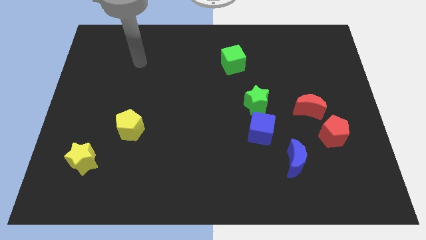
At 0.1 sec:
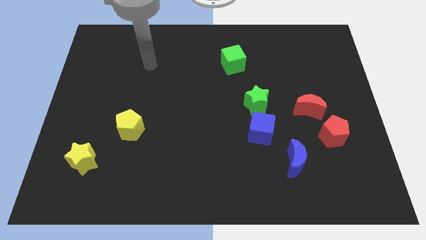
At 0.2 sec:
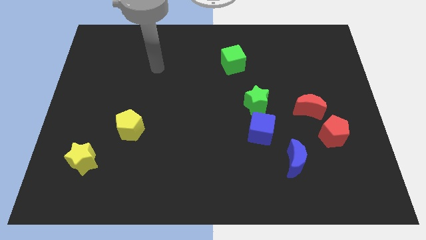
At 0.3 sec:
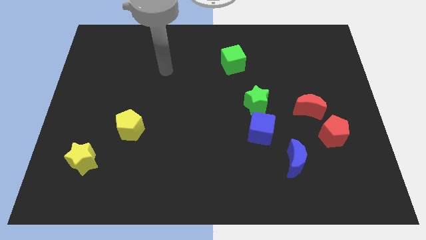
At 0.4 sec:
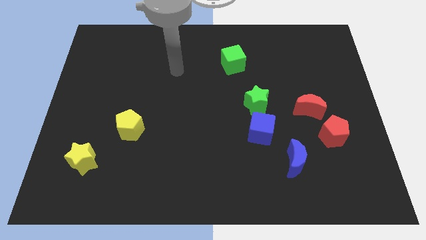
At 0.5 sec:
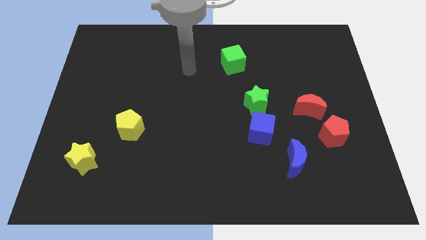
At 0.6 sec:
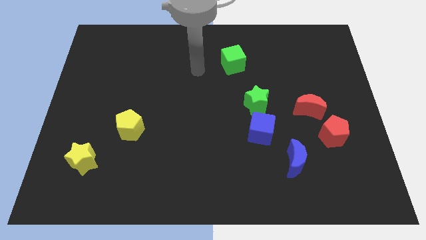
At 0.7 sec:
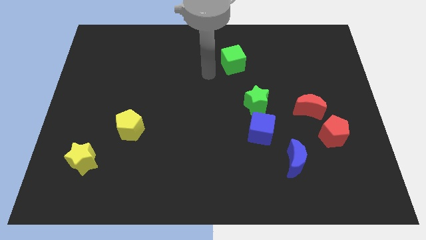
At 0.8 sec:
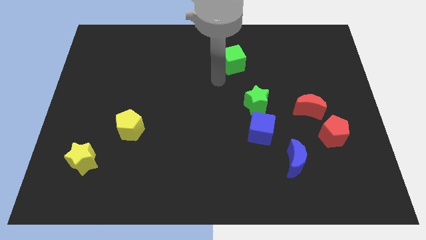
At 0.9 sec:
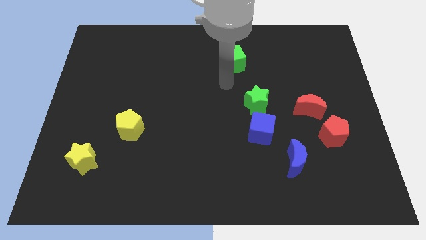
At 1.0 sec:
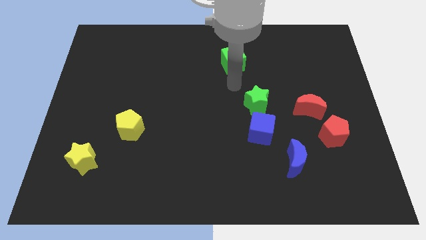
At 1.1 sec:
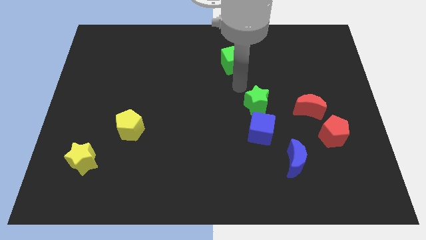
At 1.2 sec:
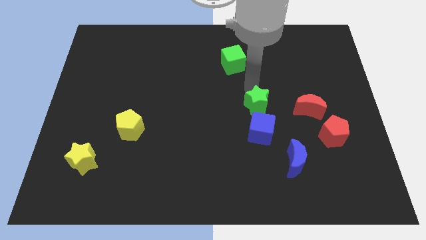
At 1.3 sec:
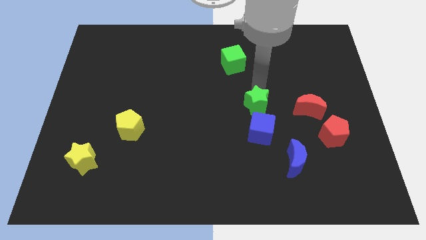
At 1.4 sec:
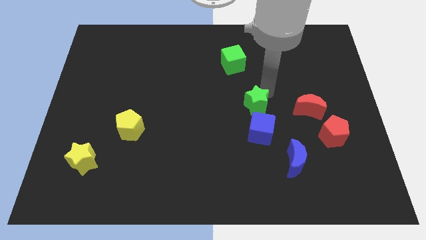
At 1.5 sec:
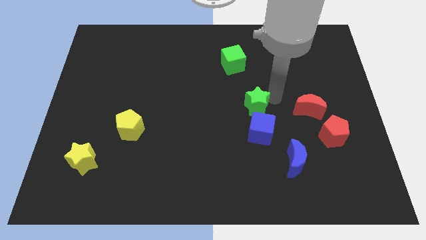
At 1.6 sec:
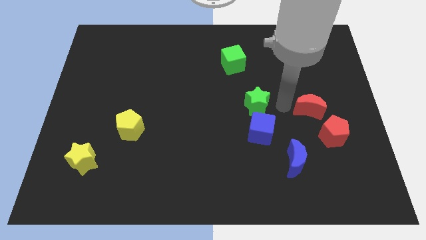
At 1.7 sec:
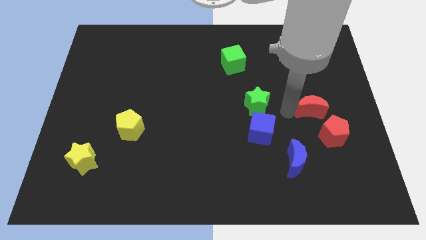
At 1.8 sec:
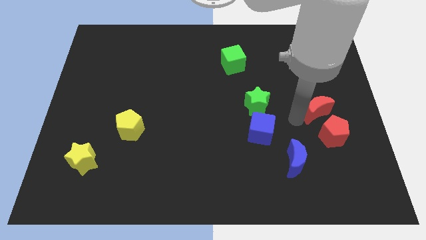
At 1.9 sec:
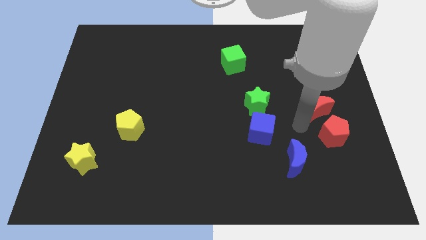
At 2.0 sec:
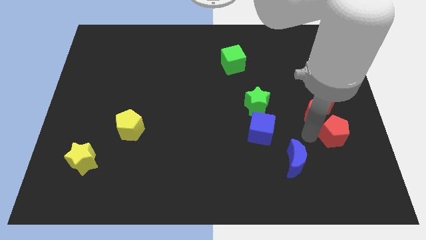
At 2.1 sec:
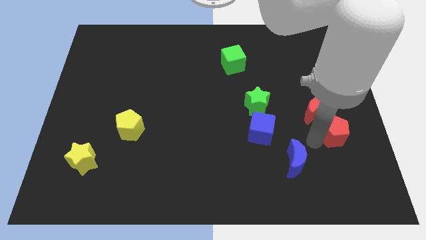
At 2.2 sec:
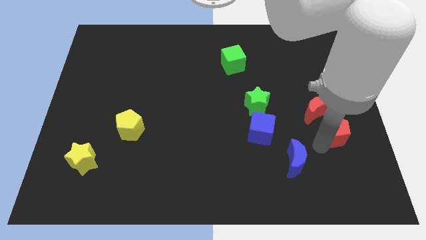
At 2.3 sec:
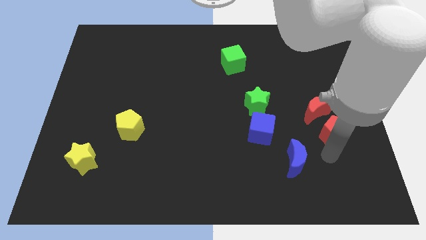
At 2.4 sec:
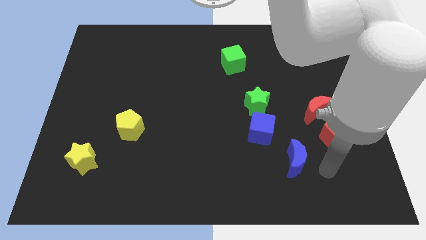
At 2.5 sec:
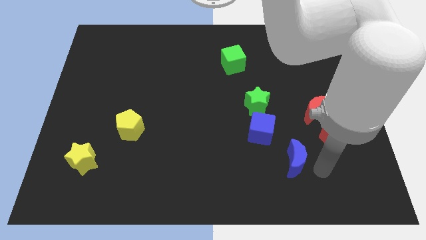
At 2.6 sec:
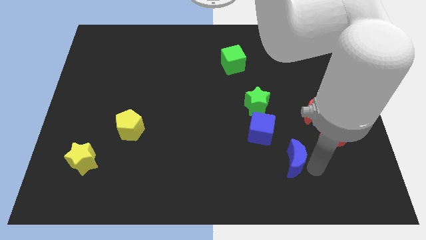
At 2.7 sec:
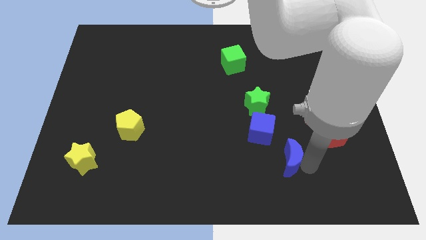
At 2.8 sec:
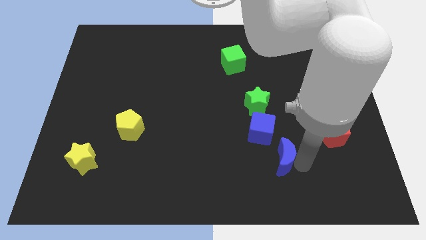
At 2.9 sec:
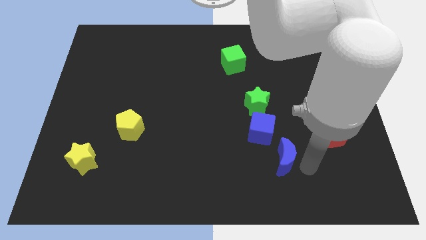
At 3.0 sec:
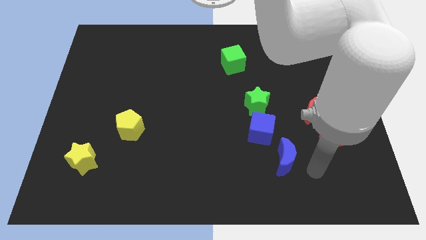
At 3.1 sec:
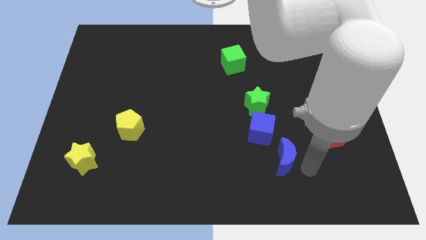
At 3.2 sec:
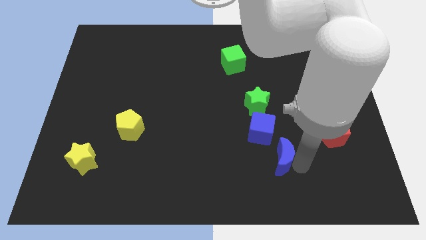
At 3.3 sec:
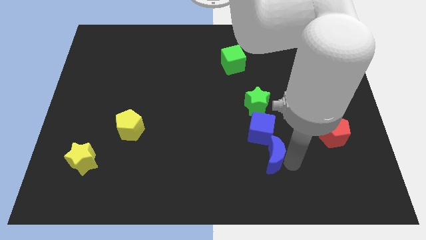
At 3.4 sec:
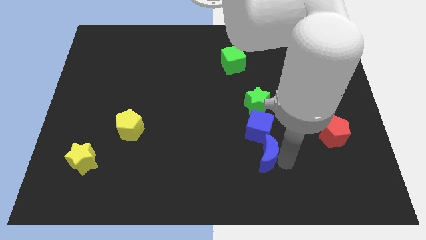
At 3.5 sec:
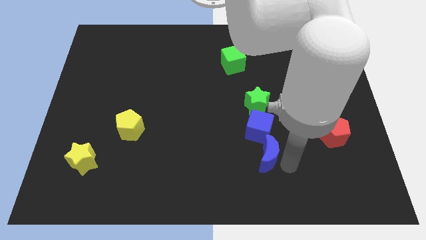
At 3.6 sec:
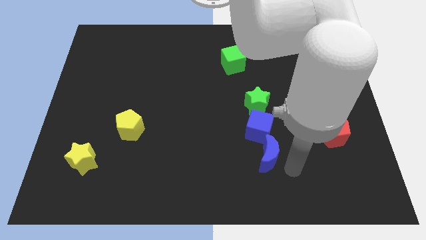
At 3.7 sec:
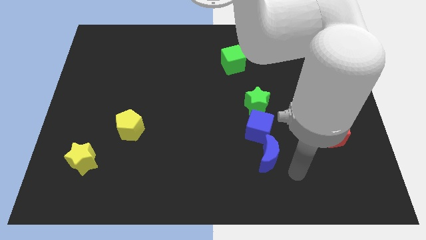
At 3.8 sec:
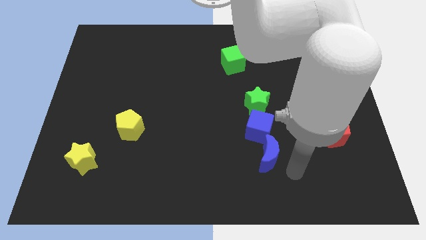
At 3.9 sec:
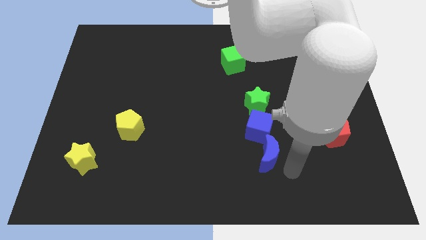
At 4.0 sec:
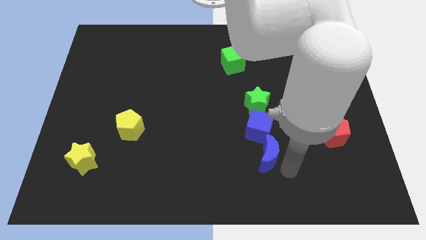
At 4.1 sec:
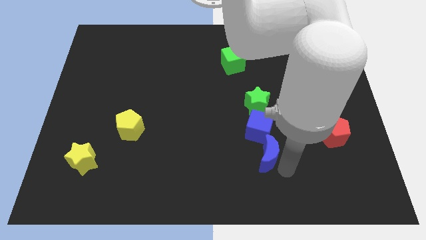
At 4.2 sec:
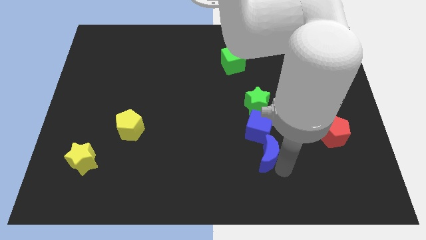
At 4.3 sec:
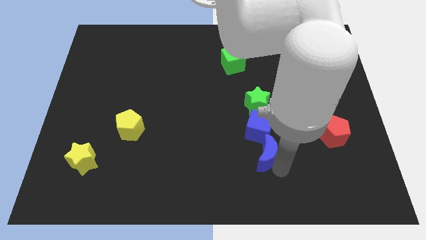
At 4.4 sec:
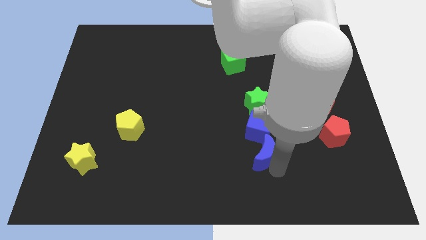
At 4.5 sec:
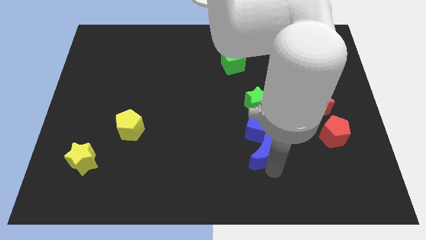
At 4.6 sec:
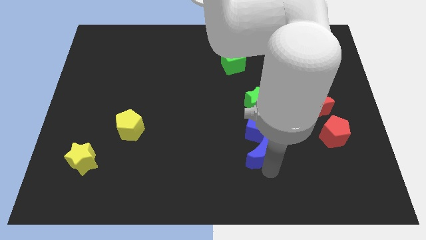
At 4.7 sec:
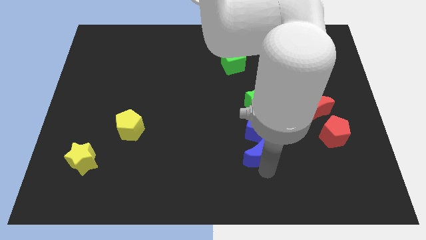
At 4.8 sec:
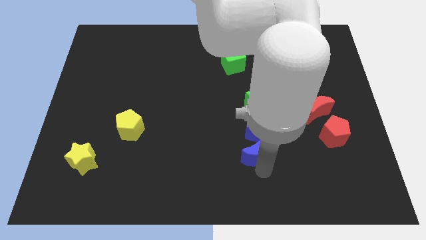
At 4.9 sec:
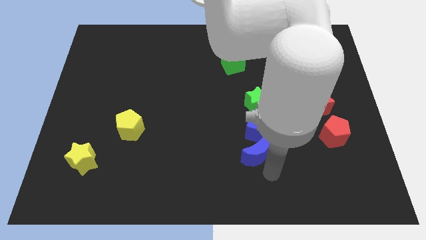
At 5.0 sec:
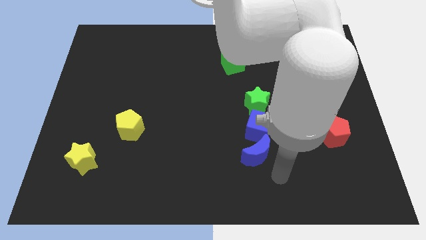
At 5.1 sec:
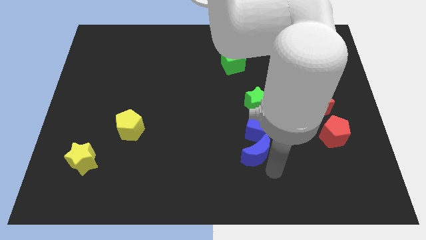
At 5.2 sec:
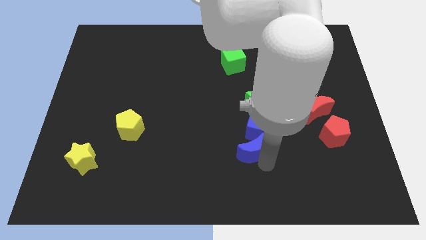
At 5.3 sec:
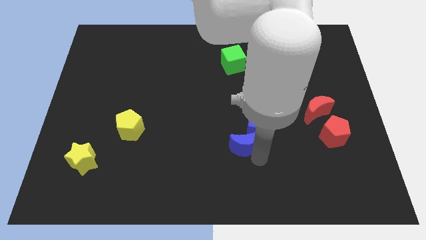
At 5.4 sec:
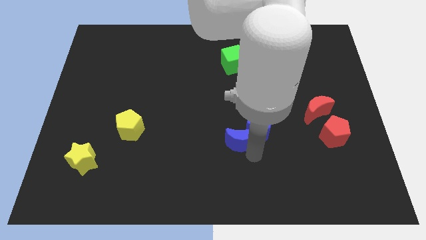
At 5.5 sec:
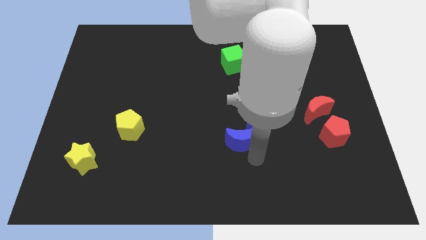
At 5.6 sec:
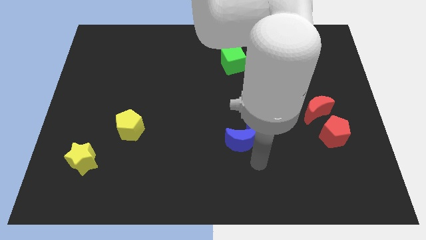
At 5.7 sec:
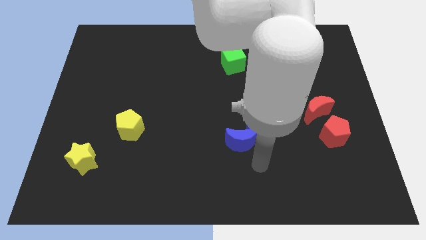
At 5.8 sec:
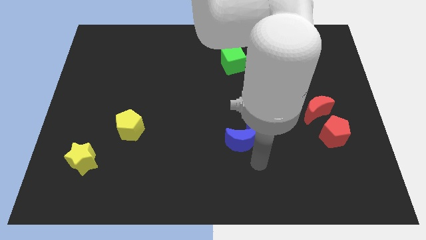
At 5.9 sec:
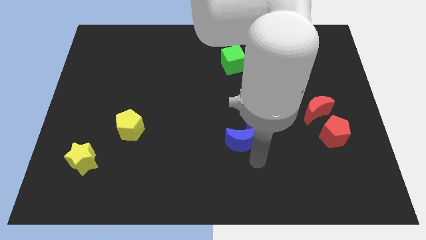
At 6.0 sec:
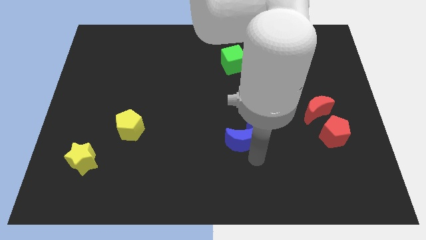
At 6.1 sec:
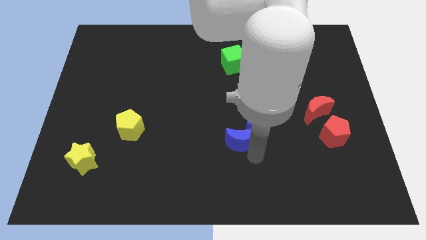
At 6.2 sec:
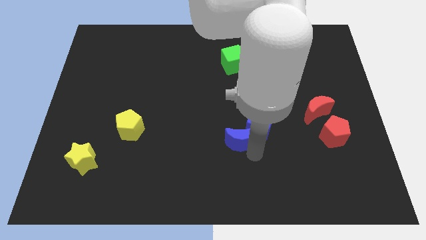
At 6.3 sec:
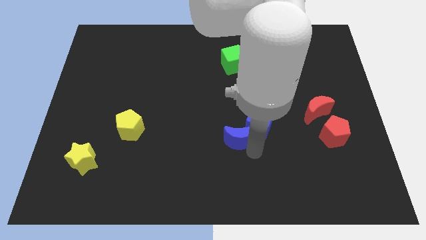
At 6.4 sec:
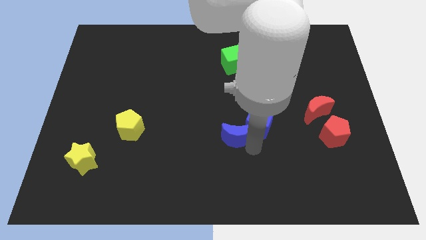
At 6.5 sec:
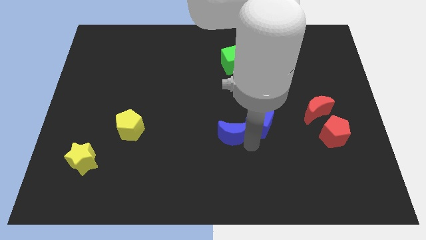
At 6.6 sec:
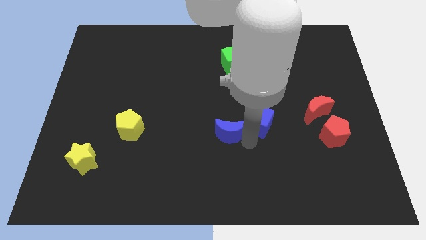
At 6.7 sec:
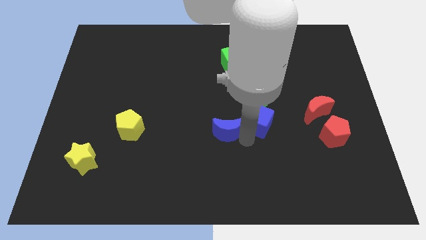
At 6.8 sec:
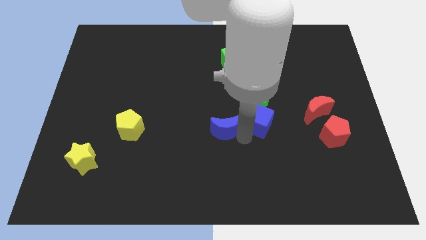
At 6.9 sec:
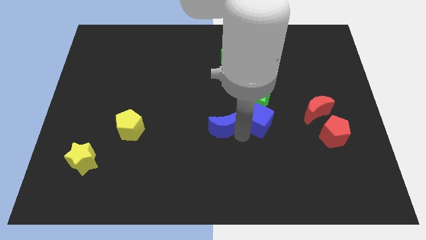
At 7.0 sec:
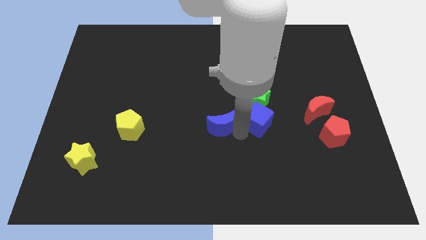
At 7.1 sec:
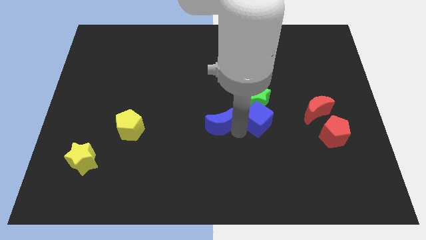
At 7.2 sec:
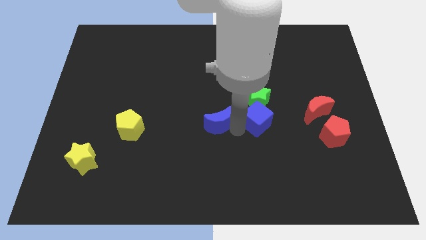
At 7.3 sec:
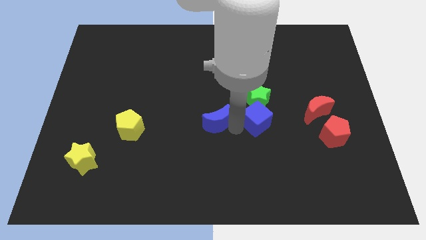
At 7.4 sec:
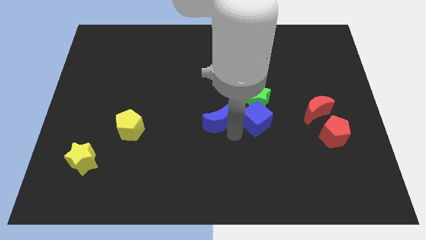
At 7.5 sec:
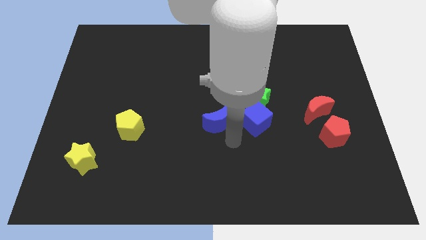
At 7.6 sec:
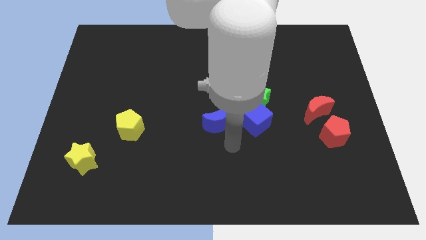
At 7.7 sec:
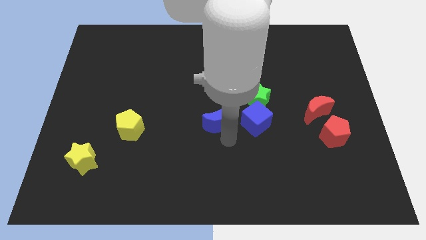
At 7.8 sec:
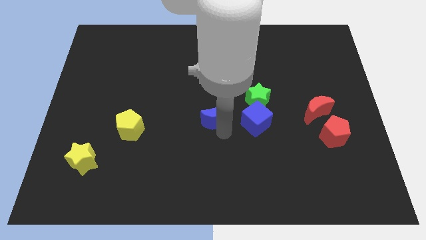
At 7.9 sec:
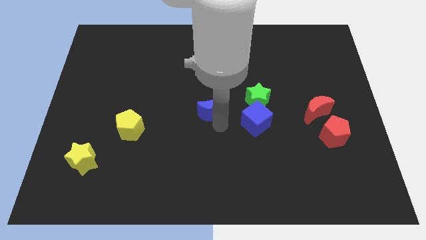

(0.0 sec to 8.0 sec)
slide the blue moon diagonally upwards and left
